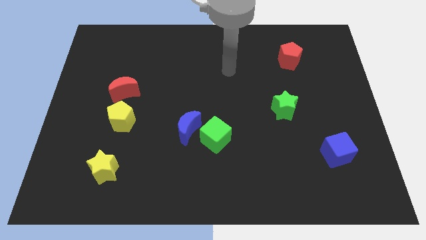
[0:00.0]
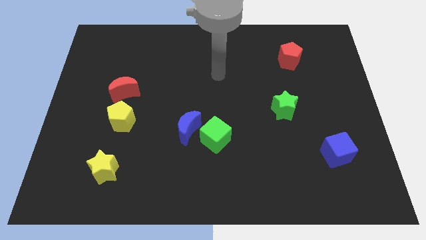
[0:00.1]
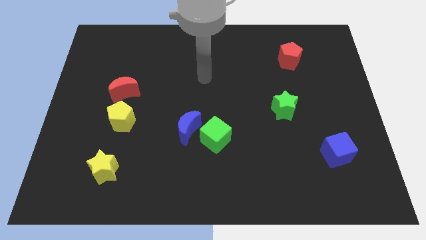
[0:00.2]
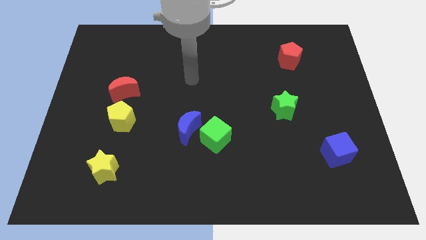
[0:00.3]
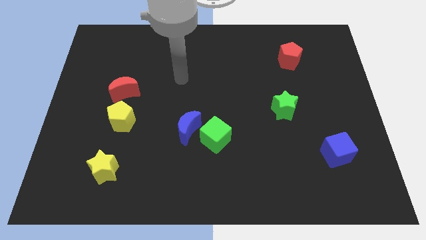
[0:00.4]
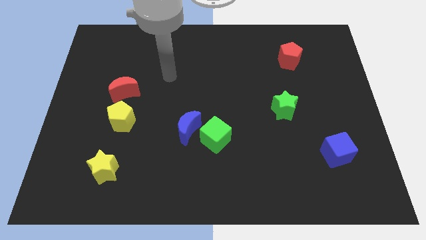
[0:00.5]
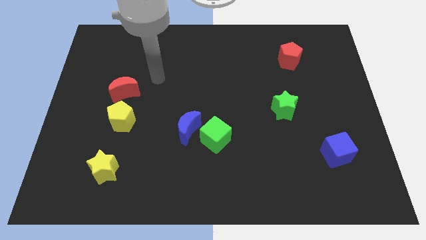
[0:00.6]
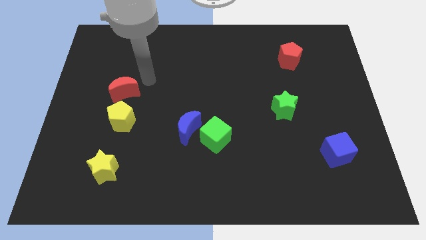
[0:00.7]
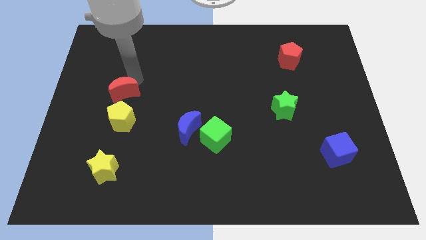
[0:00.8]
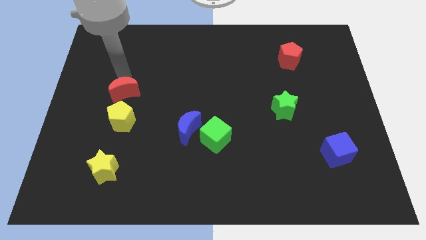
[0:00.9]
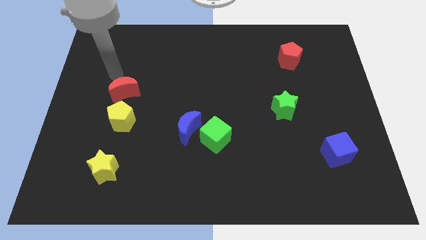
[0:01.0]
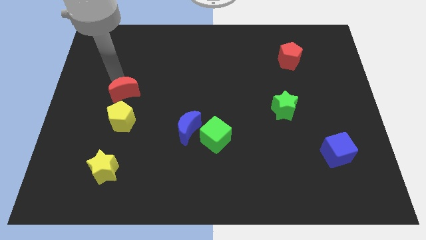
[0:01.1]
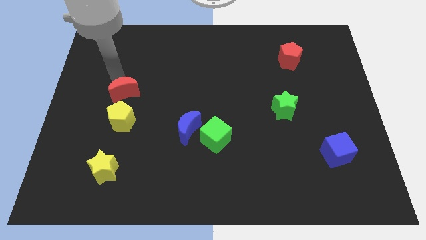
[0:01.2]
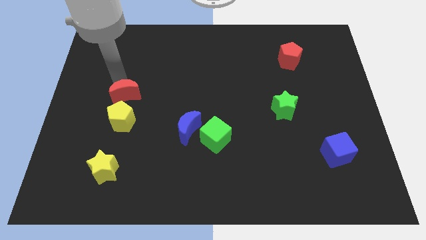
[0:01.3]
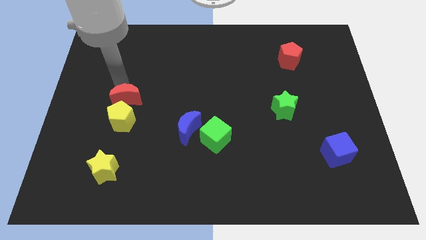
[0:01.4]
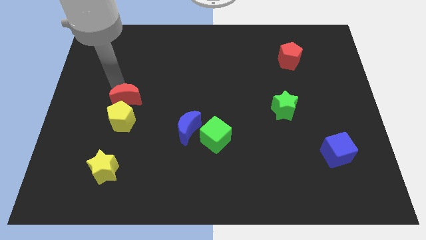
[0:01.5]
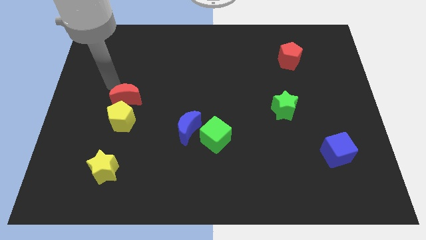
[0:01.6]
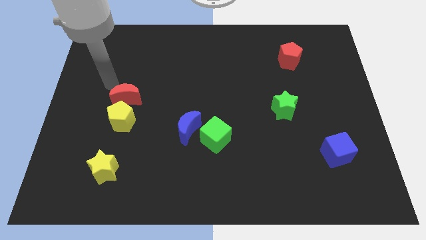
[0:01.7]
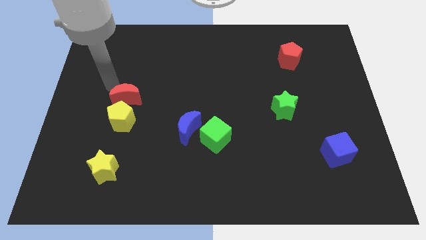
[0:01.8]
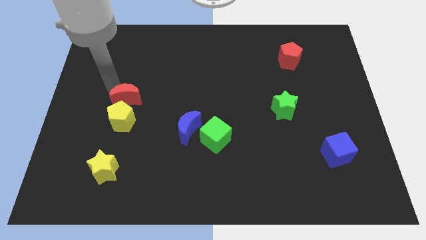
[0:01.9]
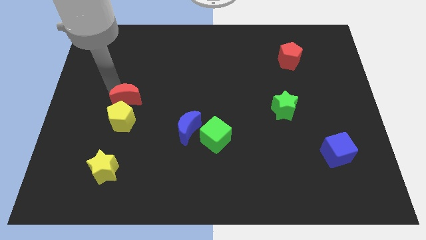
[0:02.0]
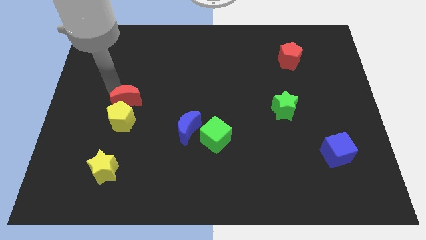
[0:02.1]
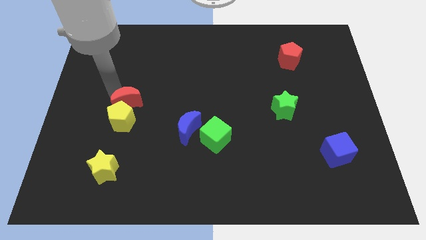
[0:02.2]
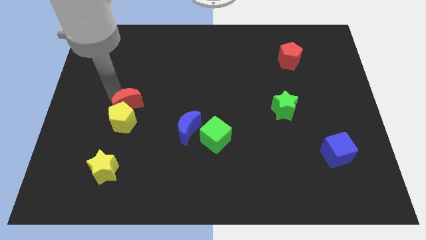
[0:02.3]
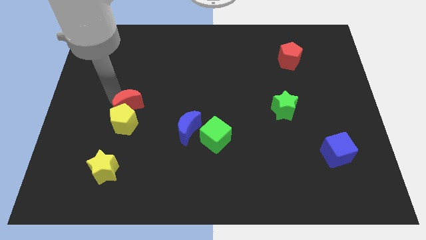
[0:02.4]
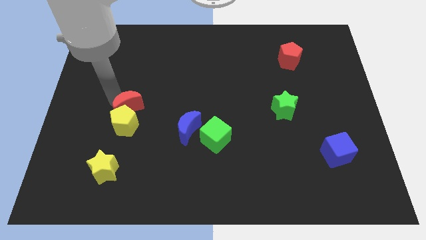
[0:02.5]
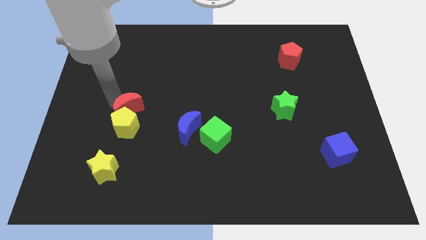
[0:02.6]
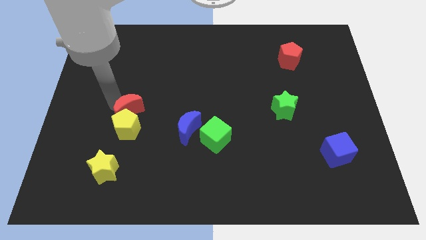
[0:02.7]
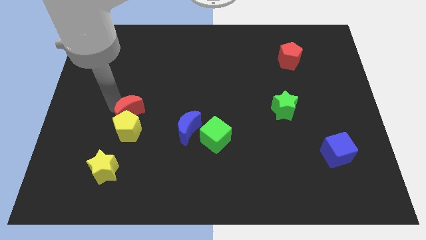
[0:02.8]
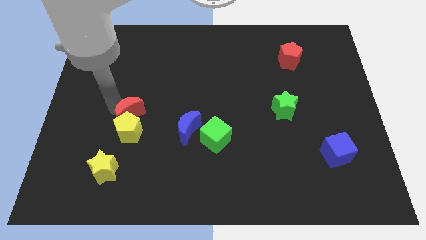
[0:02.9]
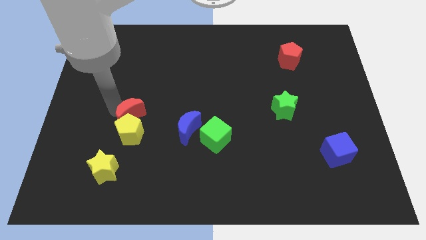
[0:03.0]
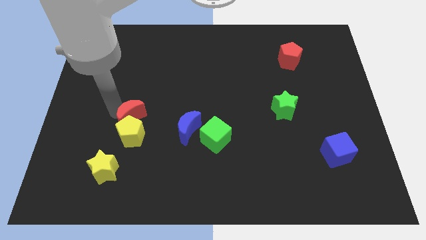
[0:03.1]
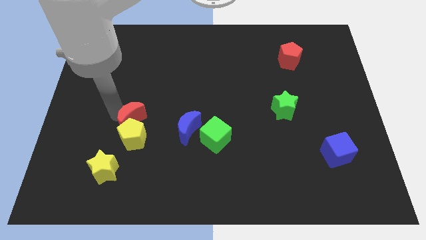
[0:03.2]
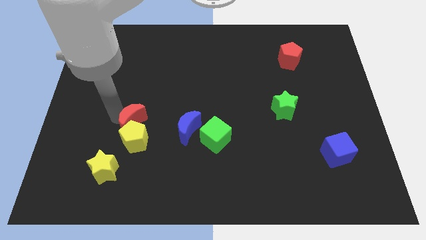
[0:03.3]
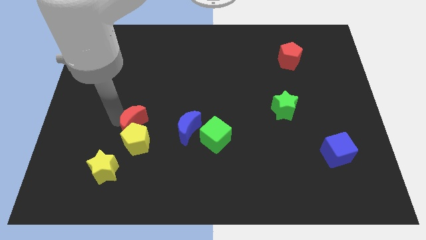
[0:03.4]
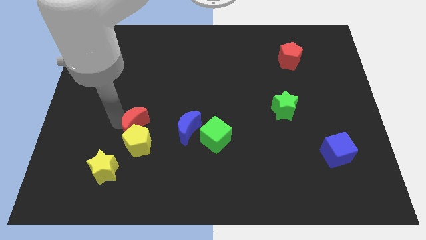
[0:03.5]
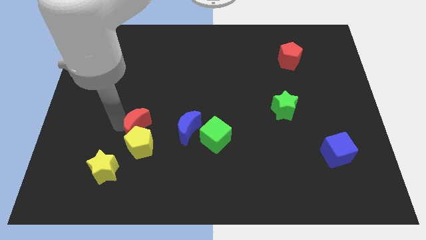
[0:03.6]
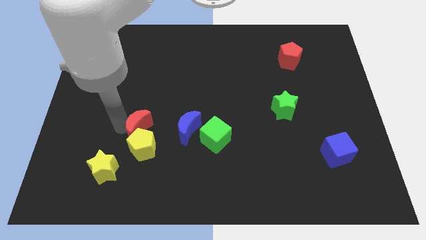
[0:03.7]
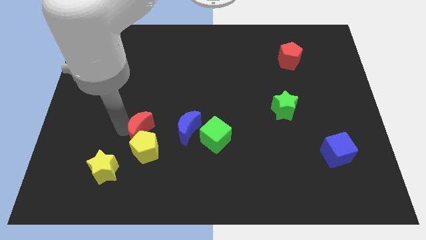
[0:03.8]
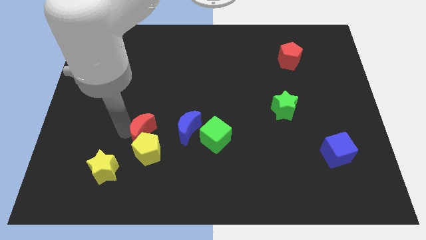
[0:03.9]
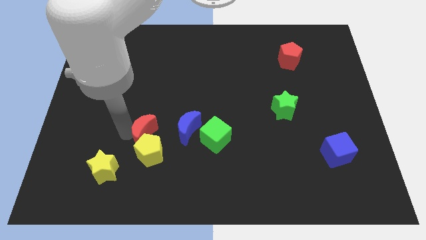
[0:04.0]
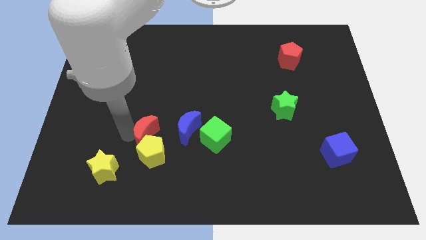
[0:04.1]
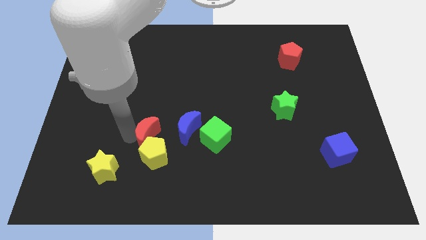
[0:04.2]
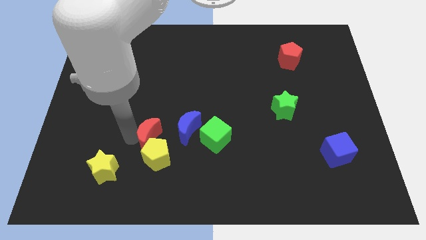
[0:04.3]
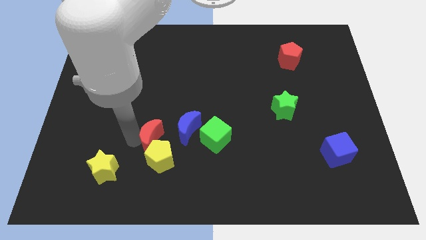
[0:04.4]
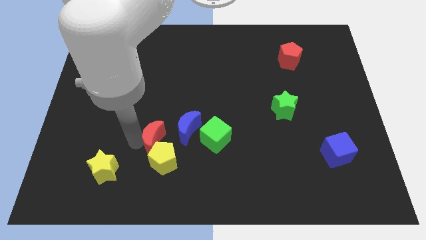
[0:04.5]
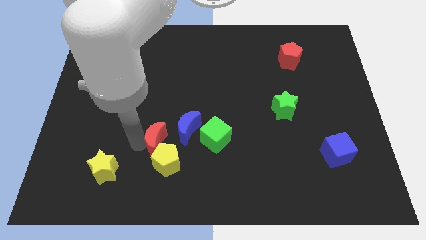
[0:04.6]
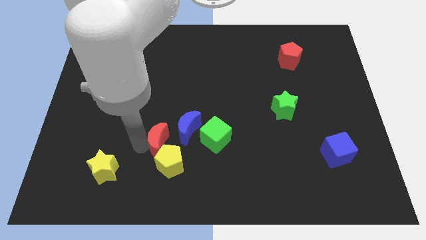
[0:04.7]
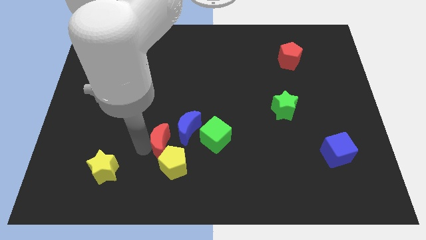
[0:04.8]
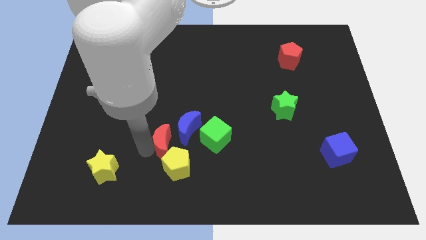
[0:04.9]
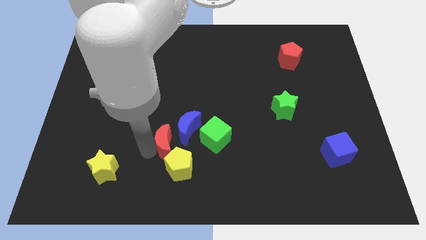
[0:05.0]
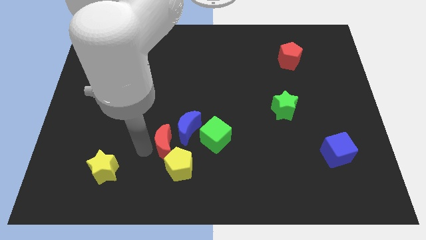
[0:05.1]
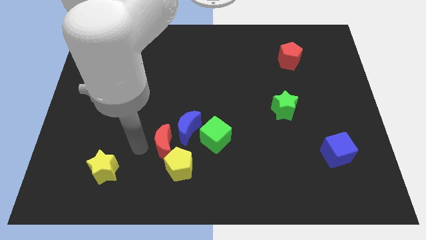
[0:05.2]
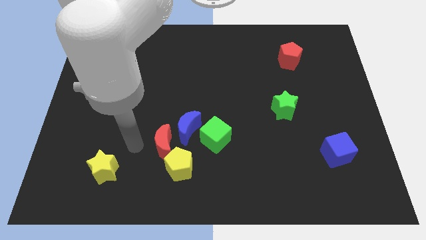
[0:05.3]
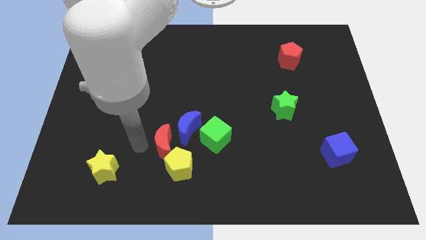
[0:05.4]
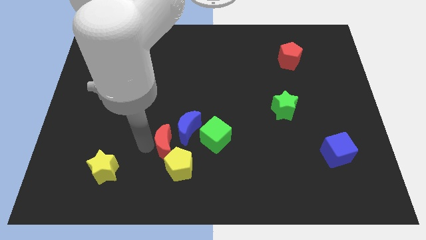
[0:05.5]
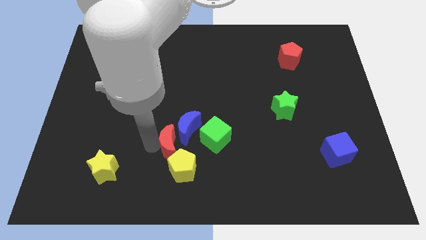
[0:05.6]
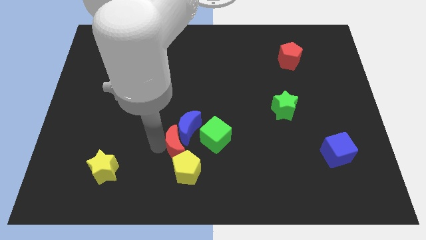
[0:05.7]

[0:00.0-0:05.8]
put the red moon to the bottom left side of the green cube

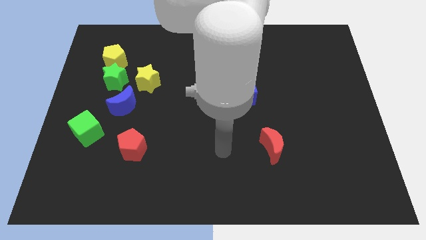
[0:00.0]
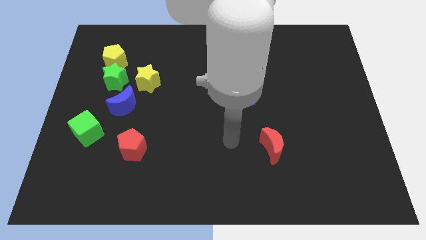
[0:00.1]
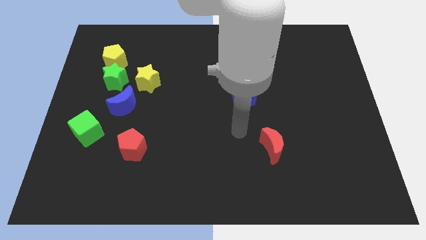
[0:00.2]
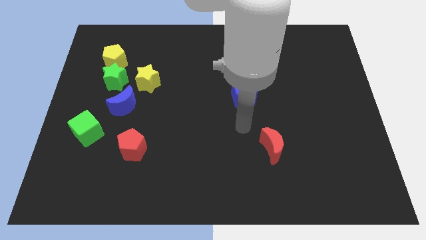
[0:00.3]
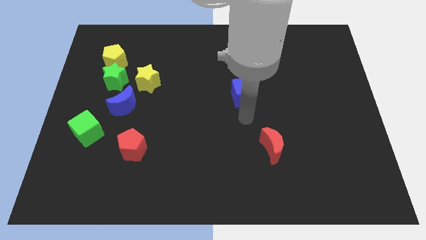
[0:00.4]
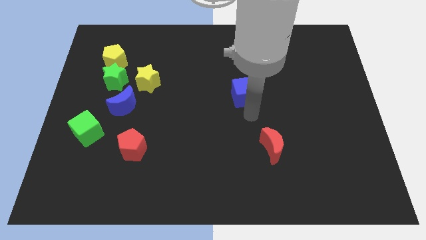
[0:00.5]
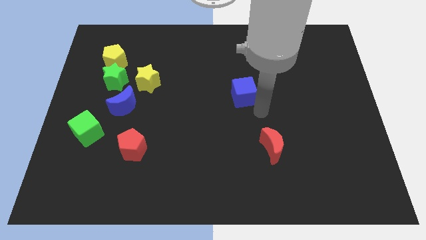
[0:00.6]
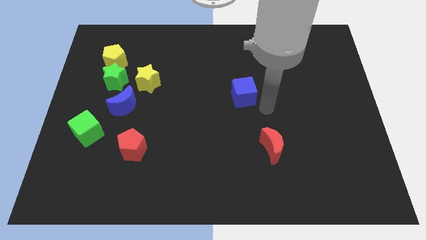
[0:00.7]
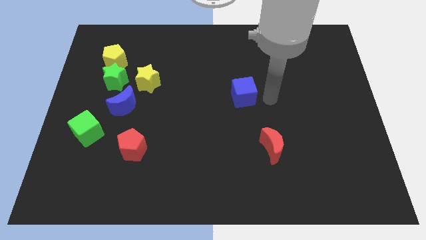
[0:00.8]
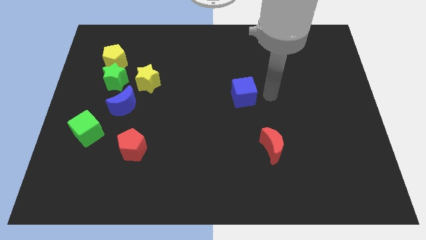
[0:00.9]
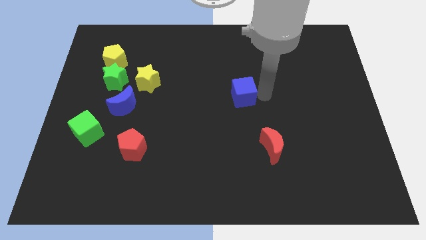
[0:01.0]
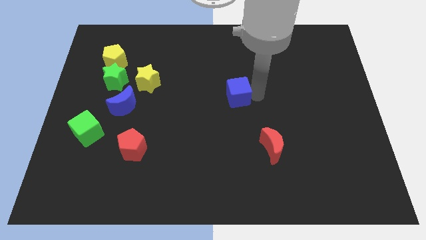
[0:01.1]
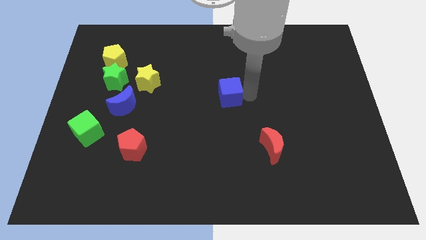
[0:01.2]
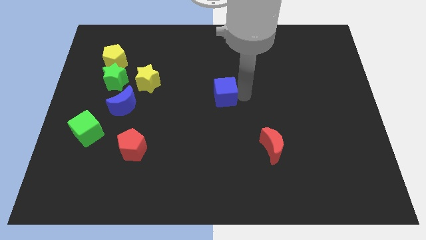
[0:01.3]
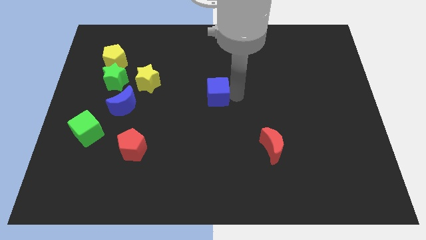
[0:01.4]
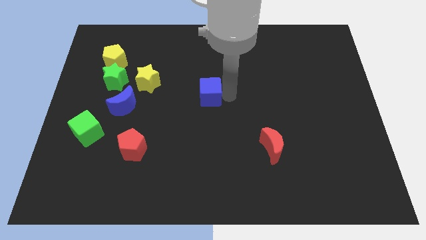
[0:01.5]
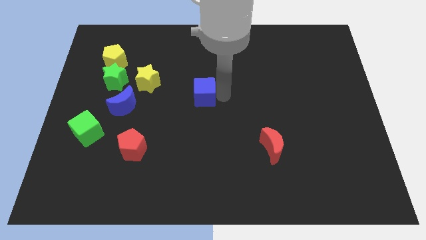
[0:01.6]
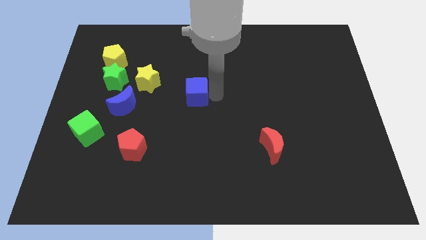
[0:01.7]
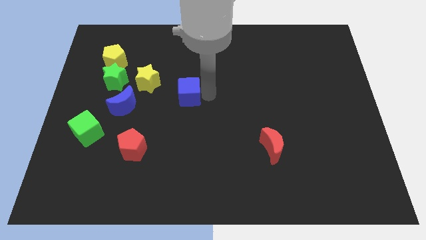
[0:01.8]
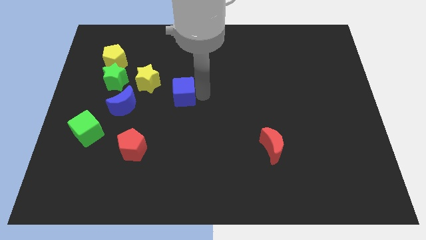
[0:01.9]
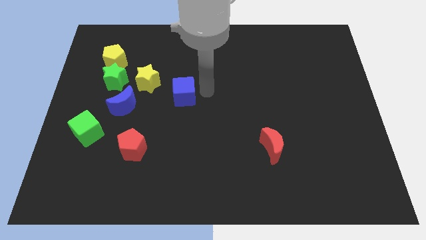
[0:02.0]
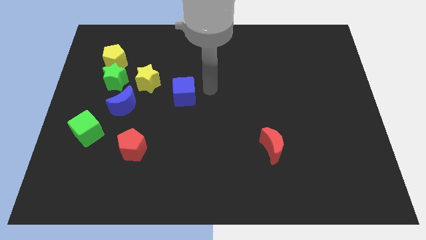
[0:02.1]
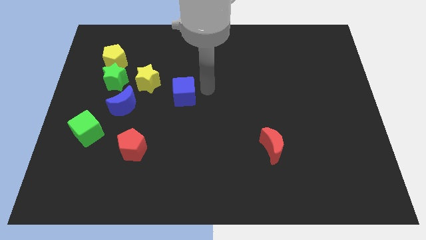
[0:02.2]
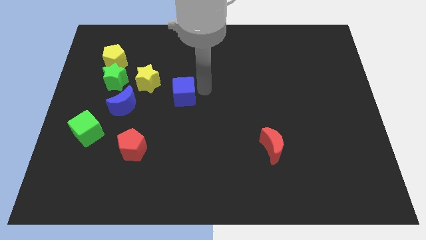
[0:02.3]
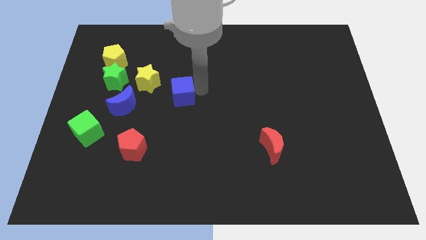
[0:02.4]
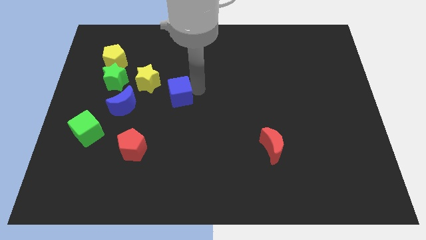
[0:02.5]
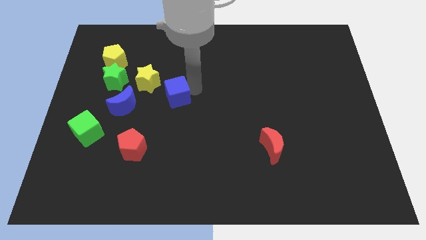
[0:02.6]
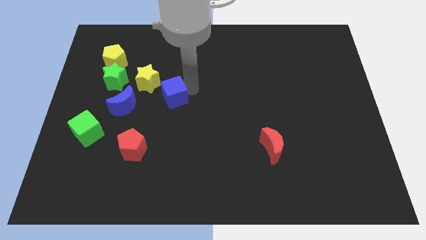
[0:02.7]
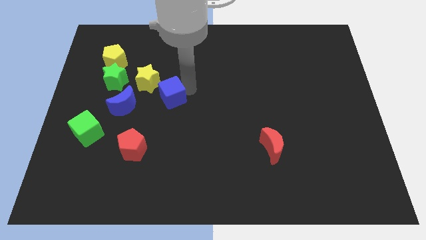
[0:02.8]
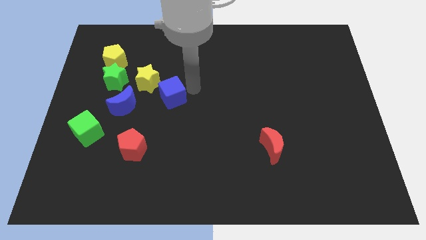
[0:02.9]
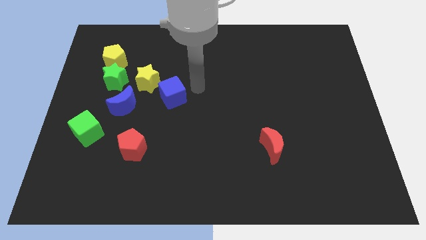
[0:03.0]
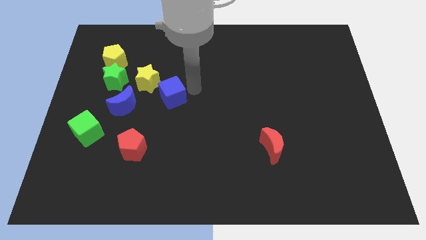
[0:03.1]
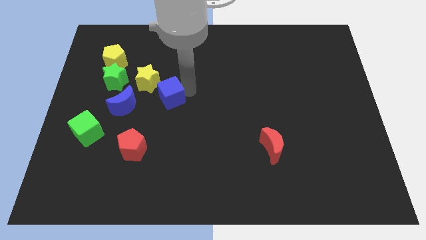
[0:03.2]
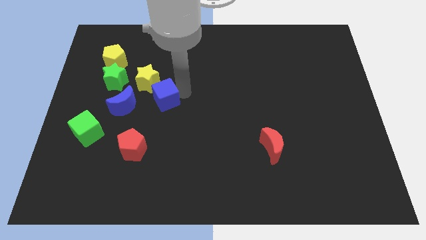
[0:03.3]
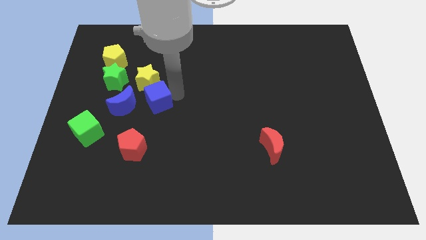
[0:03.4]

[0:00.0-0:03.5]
put the blue cube above the red pentagon
